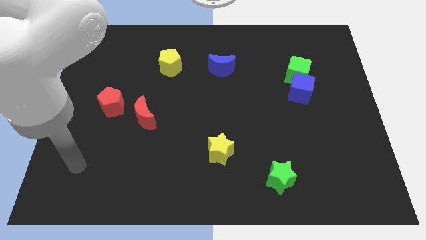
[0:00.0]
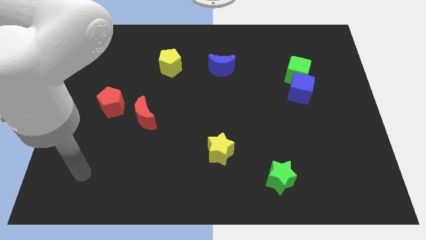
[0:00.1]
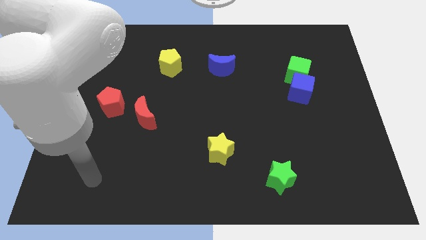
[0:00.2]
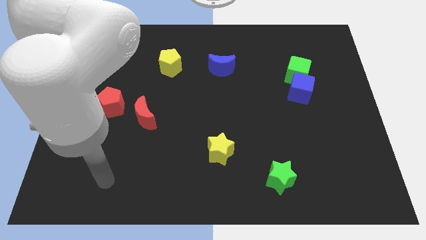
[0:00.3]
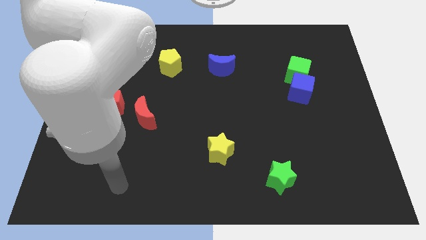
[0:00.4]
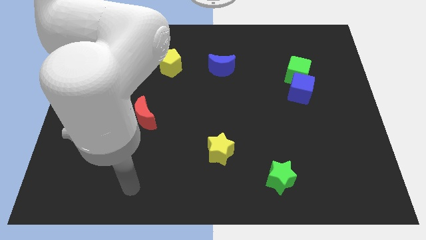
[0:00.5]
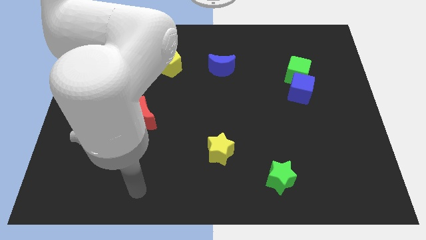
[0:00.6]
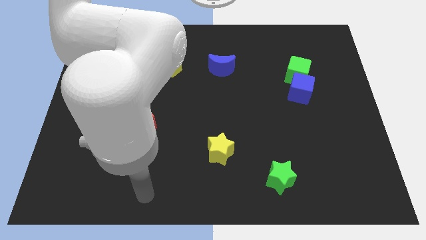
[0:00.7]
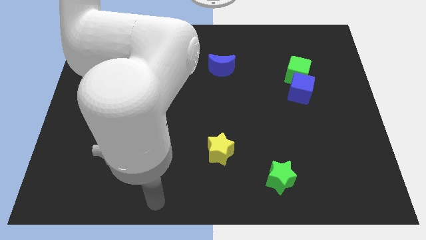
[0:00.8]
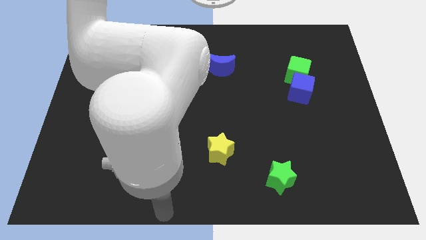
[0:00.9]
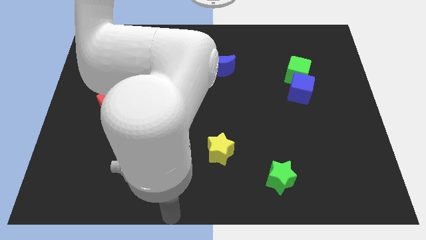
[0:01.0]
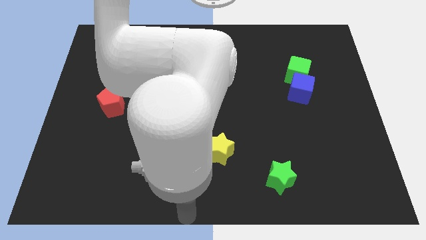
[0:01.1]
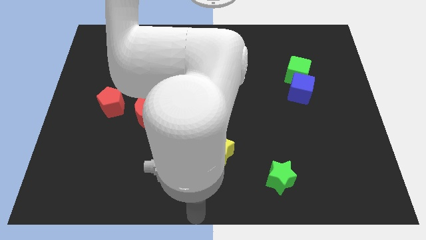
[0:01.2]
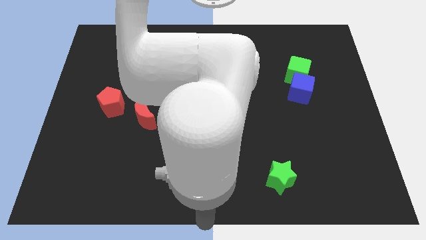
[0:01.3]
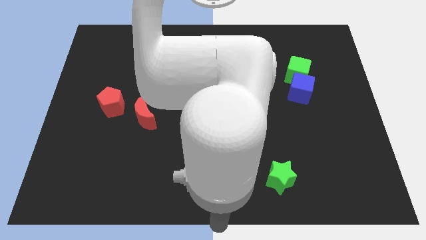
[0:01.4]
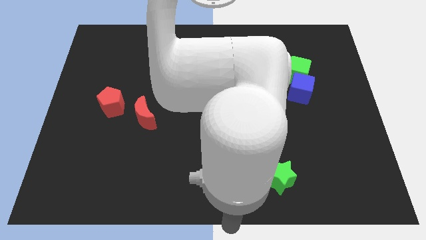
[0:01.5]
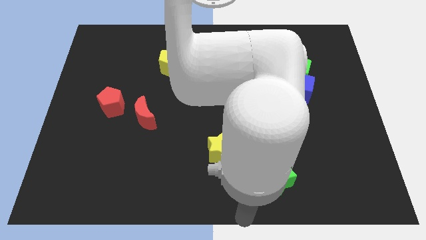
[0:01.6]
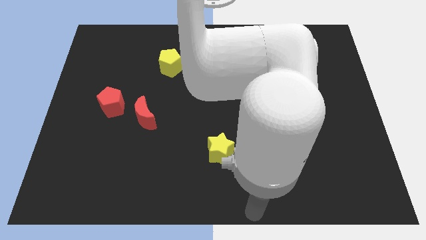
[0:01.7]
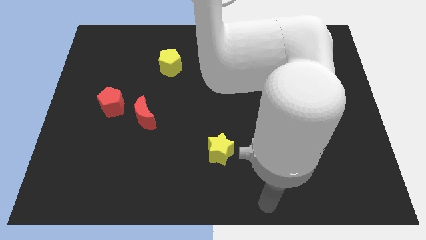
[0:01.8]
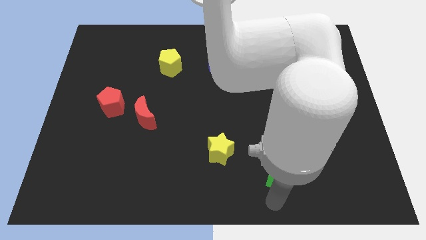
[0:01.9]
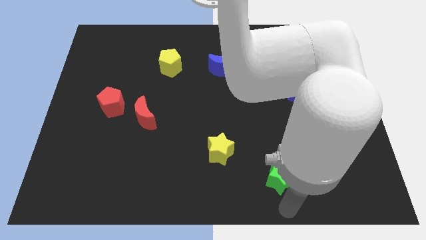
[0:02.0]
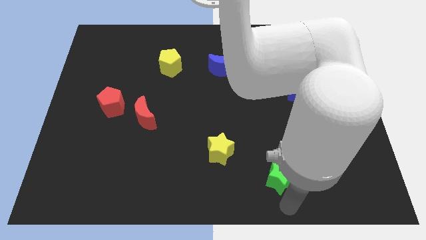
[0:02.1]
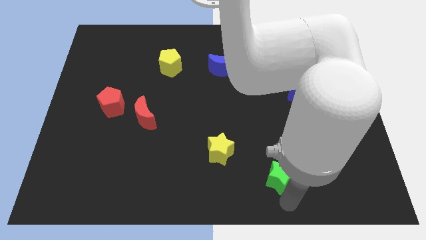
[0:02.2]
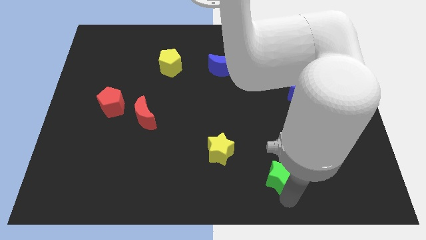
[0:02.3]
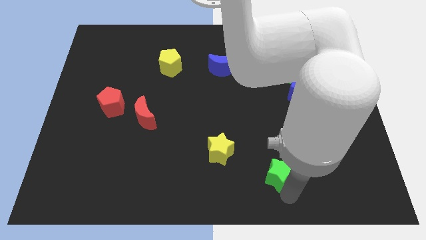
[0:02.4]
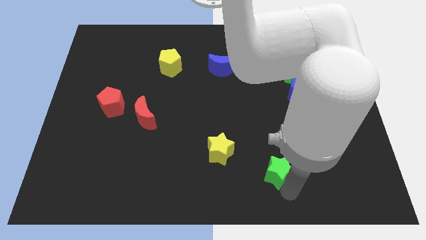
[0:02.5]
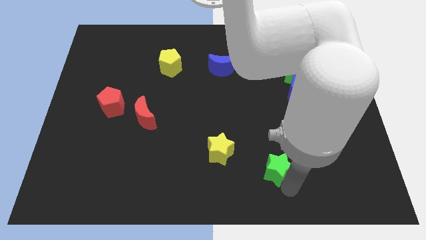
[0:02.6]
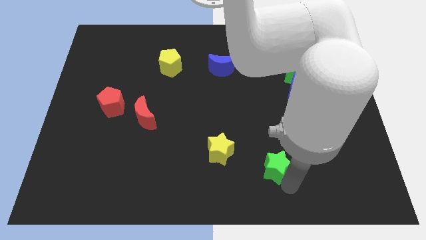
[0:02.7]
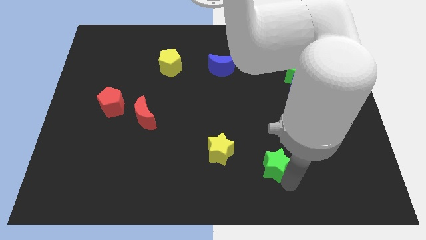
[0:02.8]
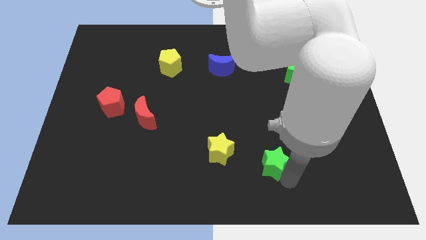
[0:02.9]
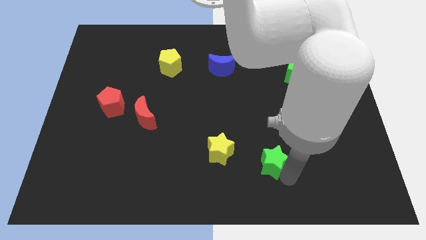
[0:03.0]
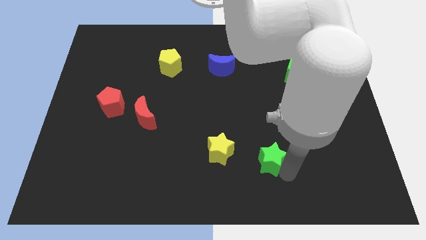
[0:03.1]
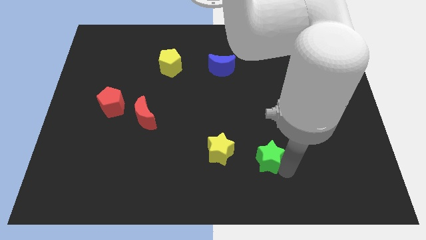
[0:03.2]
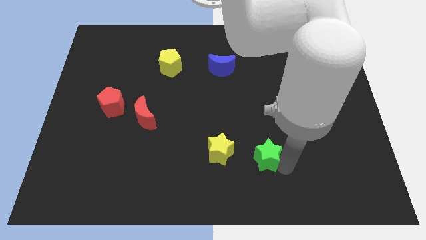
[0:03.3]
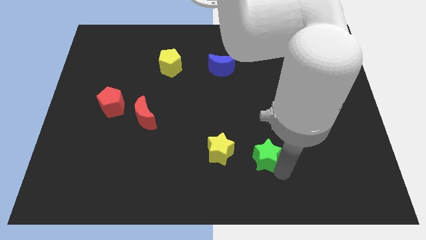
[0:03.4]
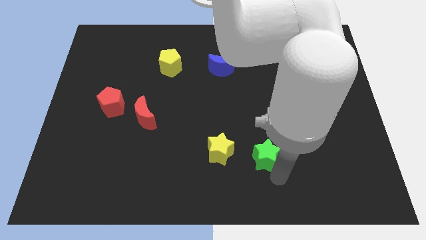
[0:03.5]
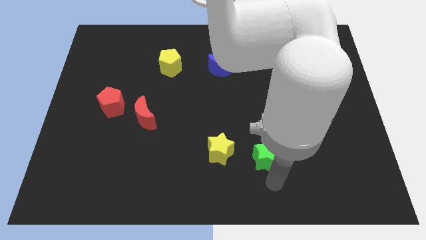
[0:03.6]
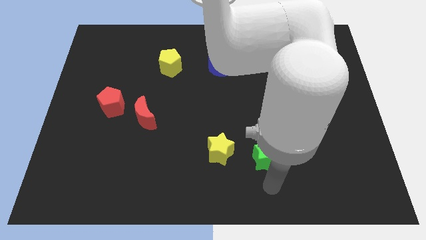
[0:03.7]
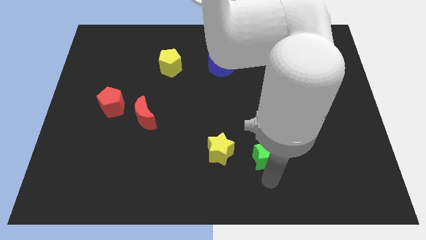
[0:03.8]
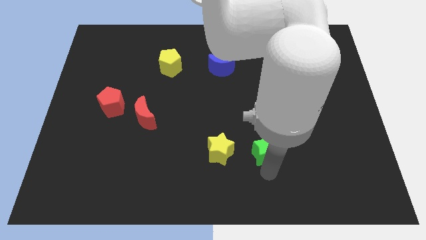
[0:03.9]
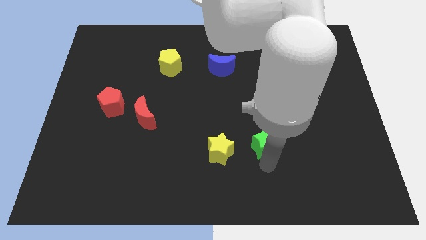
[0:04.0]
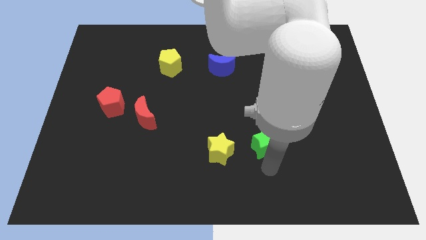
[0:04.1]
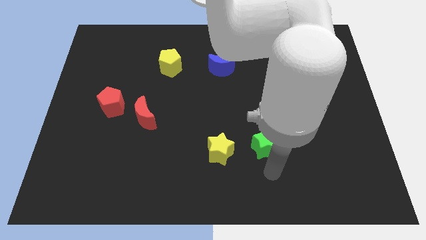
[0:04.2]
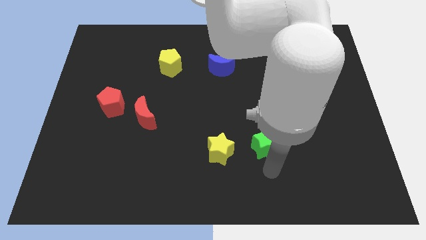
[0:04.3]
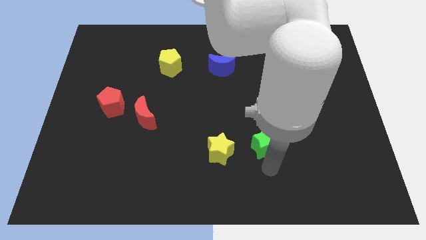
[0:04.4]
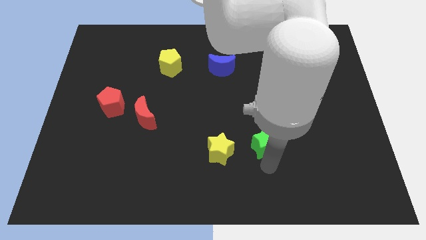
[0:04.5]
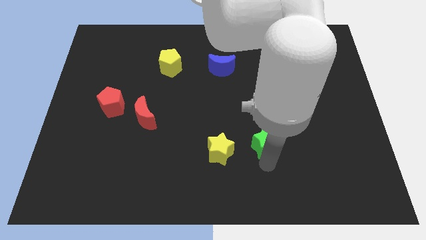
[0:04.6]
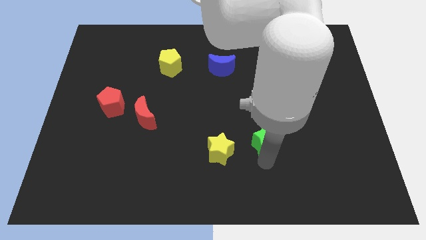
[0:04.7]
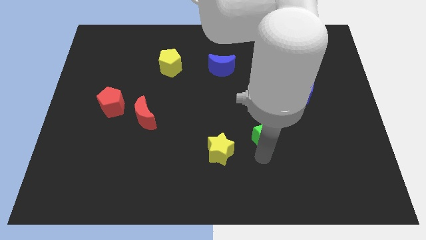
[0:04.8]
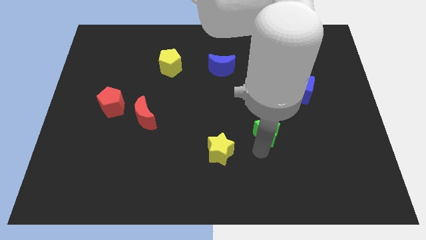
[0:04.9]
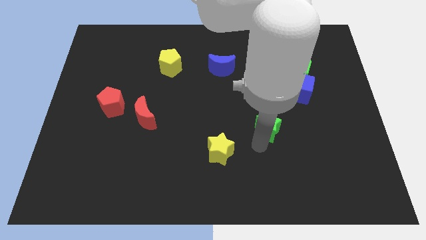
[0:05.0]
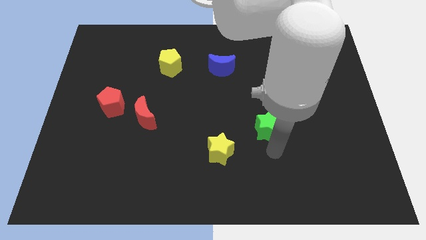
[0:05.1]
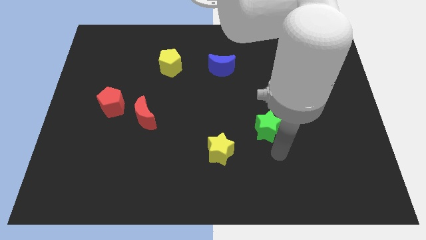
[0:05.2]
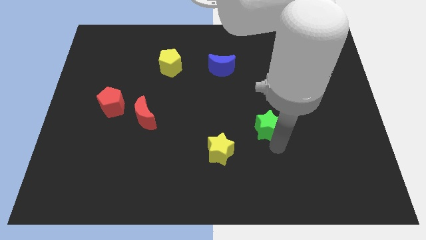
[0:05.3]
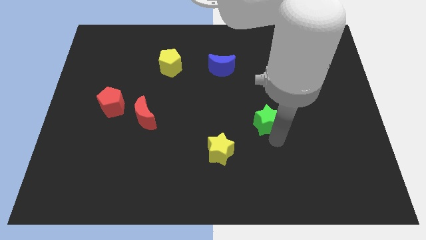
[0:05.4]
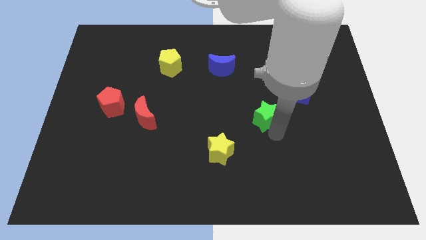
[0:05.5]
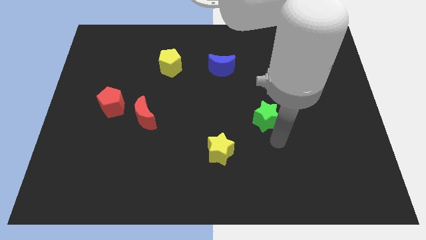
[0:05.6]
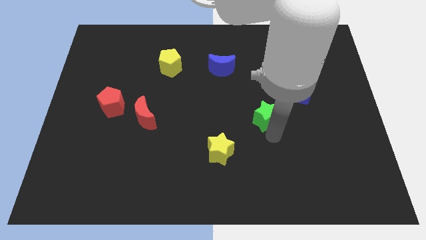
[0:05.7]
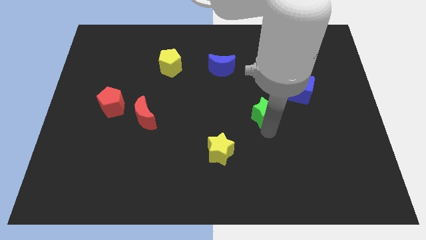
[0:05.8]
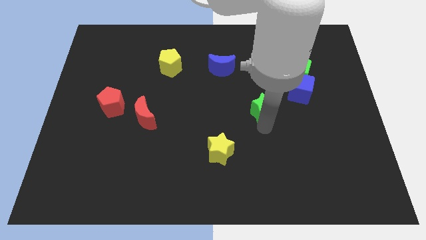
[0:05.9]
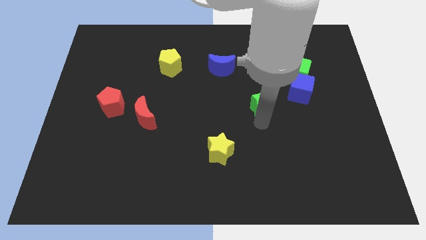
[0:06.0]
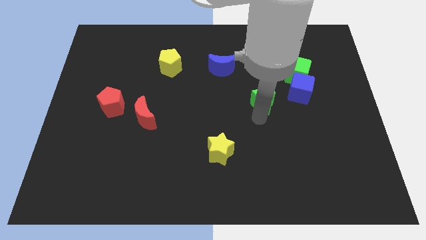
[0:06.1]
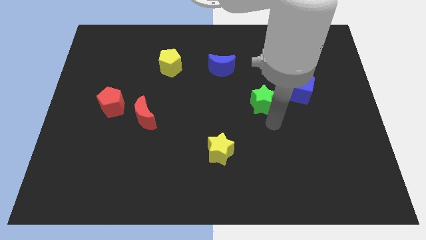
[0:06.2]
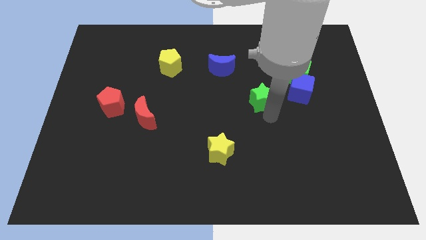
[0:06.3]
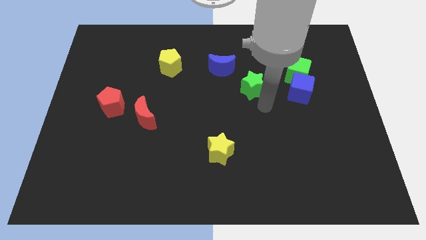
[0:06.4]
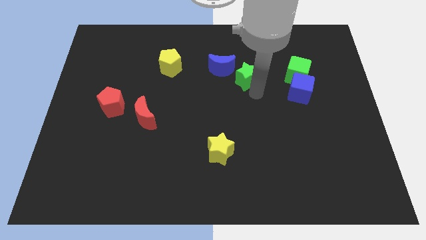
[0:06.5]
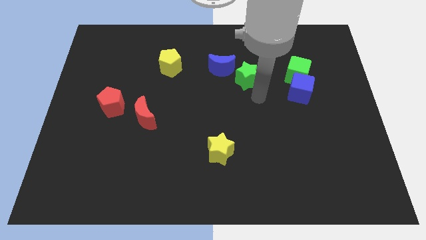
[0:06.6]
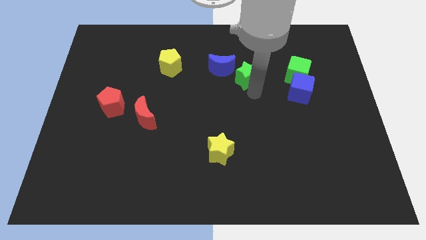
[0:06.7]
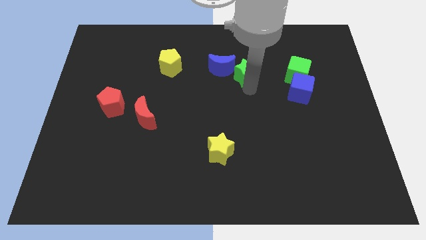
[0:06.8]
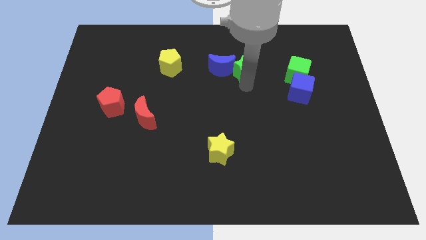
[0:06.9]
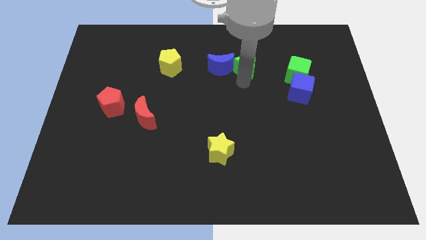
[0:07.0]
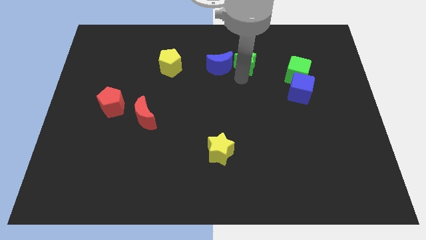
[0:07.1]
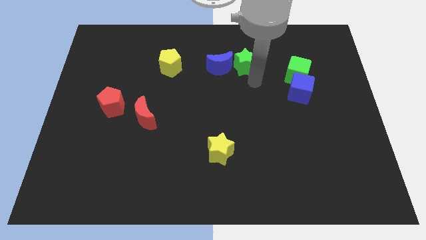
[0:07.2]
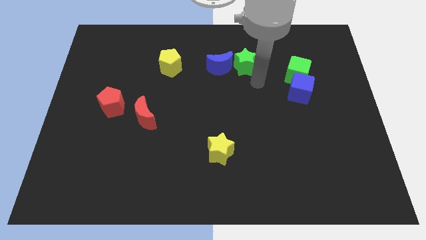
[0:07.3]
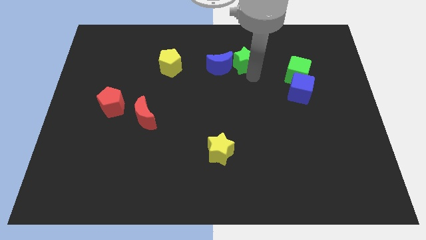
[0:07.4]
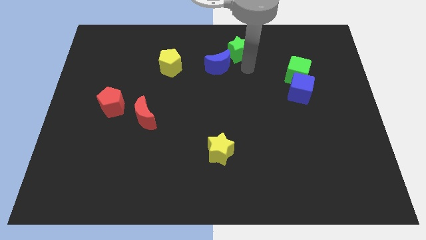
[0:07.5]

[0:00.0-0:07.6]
slide the green star to the towards your base

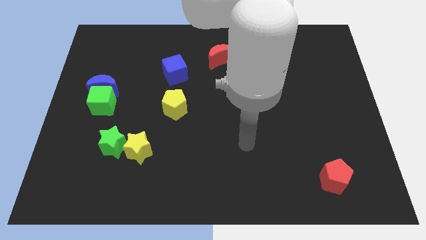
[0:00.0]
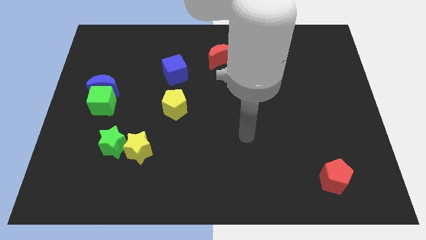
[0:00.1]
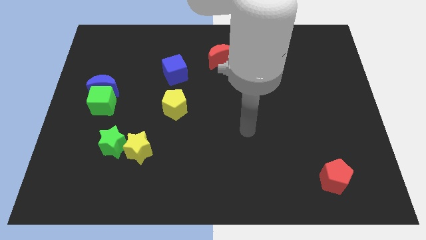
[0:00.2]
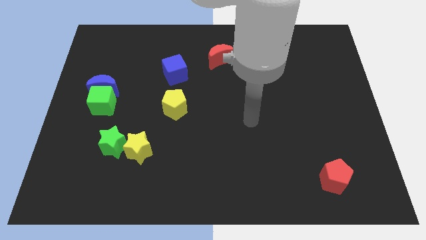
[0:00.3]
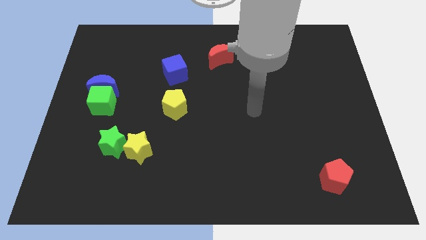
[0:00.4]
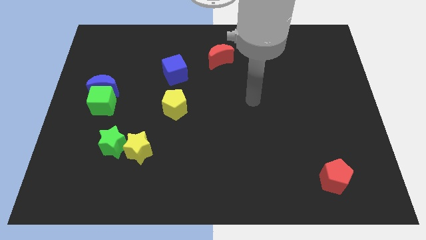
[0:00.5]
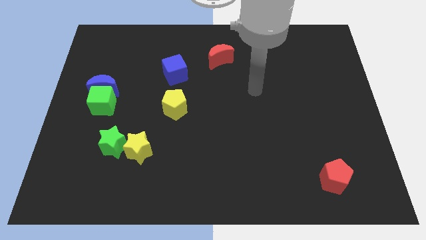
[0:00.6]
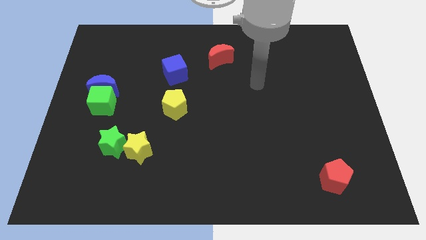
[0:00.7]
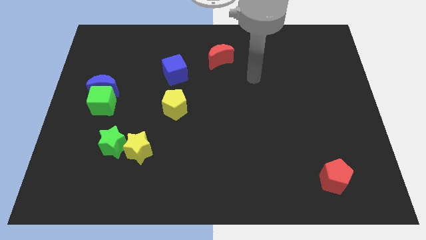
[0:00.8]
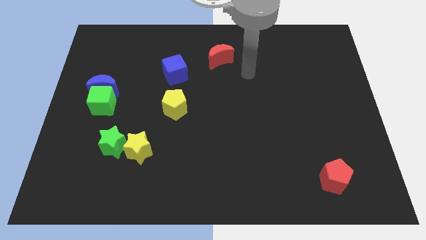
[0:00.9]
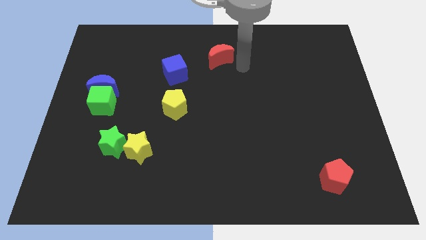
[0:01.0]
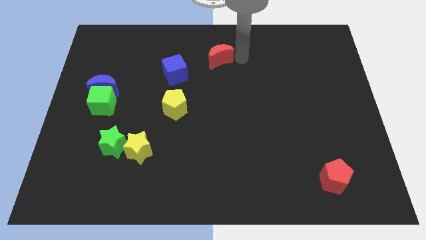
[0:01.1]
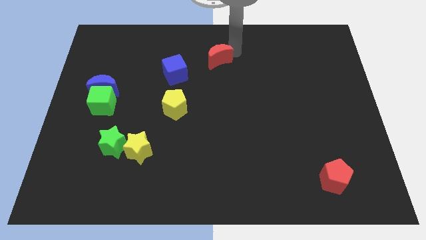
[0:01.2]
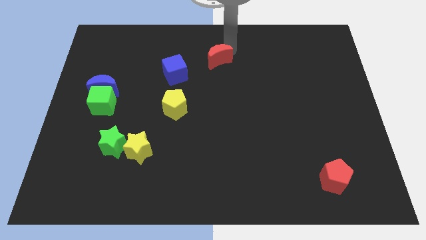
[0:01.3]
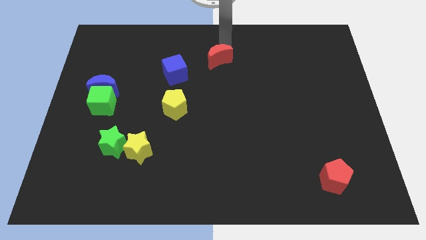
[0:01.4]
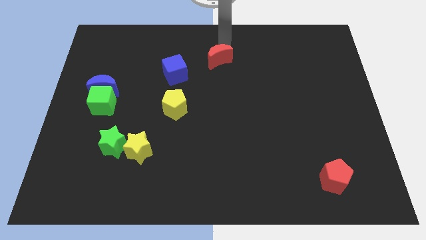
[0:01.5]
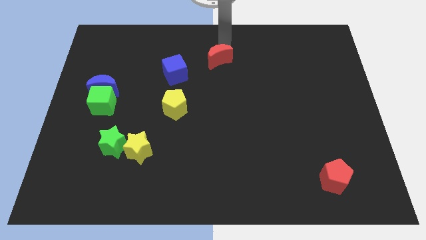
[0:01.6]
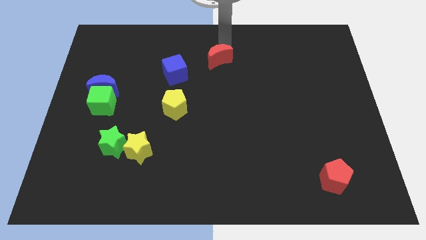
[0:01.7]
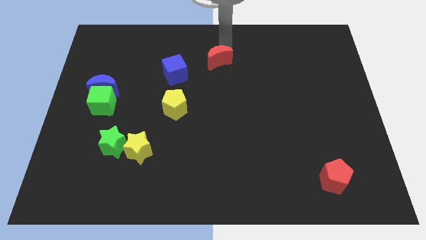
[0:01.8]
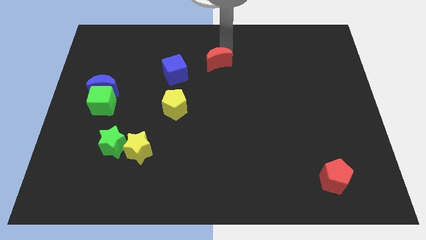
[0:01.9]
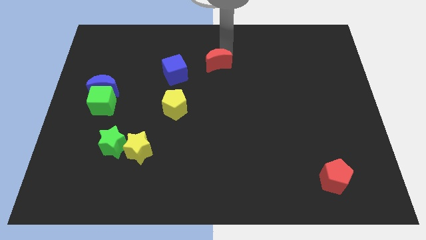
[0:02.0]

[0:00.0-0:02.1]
move the red moon to the middle
